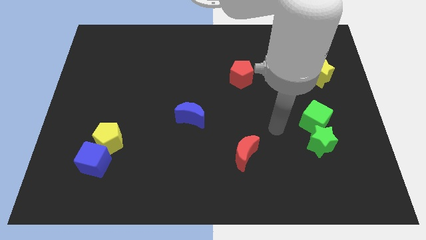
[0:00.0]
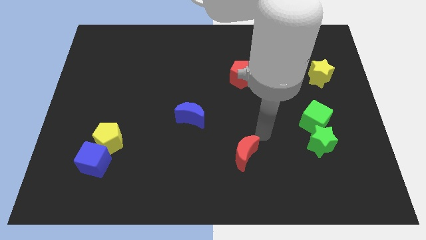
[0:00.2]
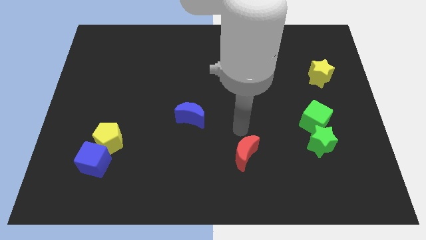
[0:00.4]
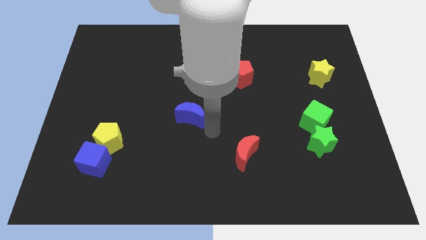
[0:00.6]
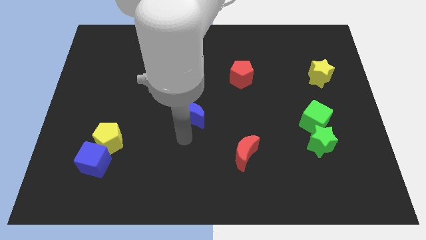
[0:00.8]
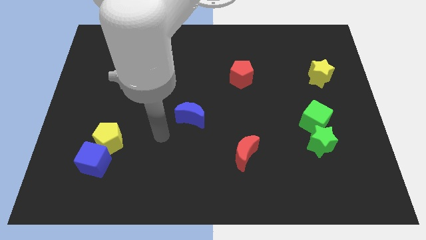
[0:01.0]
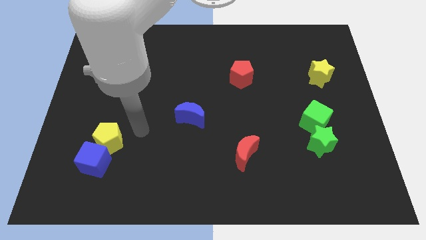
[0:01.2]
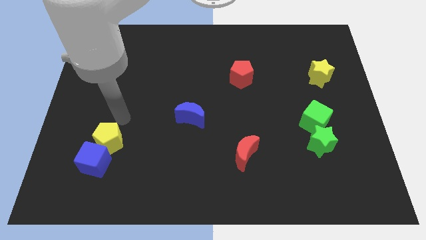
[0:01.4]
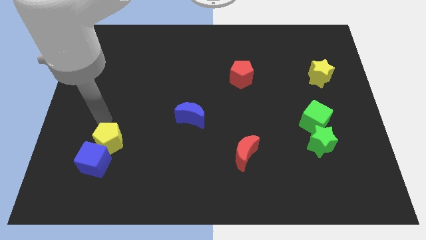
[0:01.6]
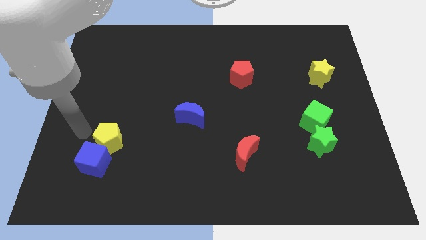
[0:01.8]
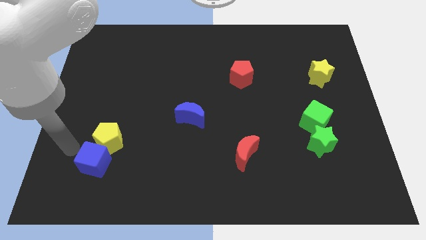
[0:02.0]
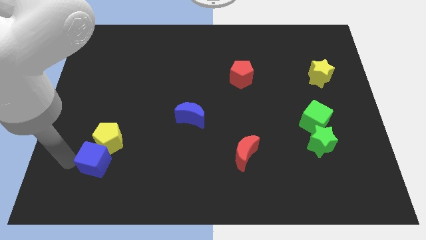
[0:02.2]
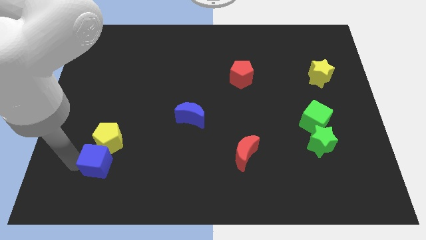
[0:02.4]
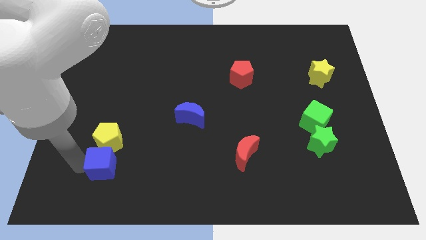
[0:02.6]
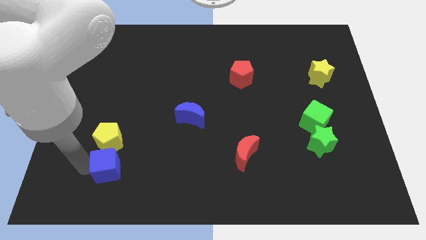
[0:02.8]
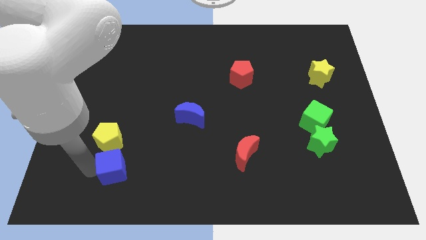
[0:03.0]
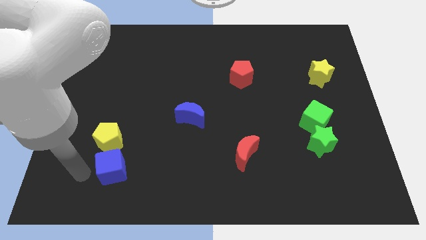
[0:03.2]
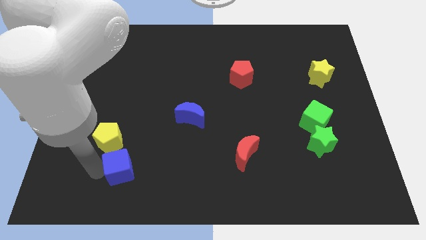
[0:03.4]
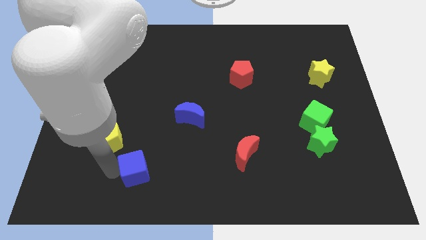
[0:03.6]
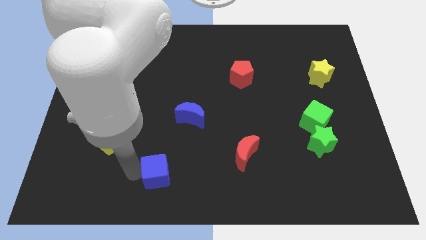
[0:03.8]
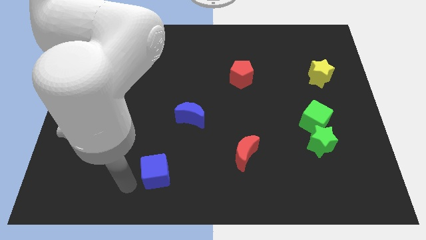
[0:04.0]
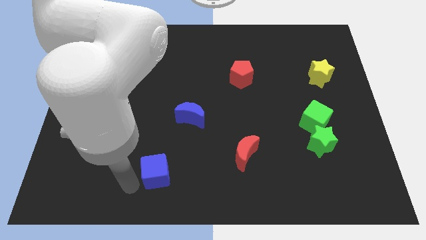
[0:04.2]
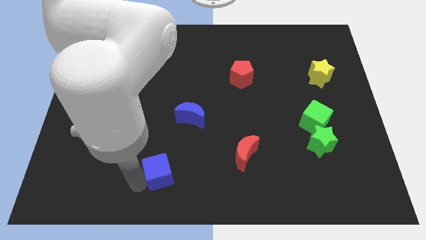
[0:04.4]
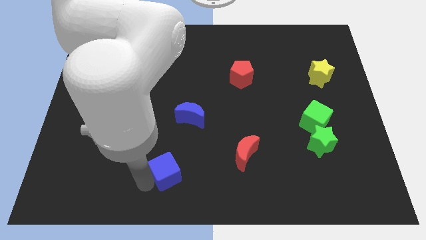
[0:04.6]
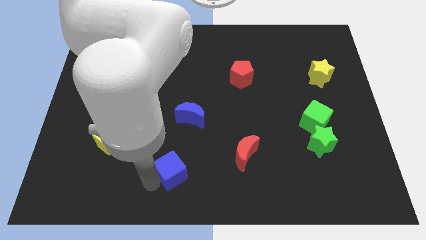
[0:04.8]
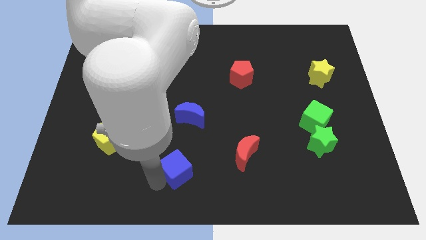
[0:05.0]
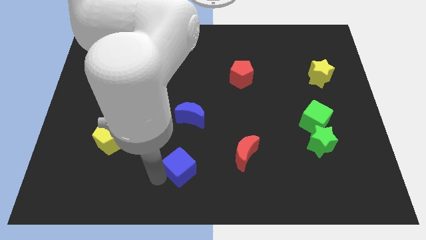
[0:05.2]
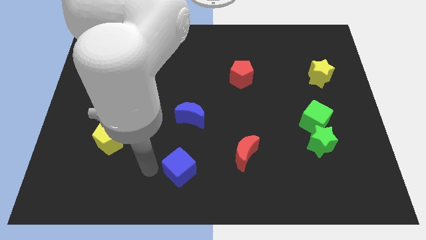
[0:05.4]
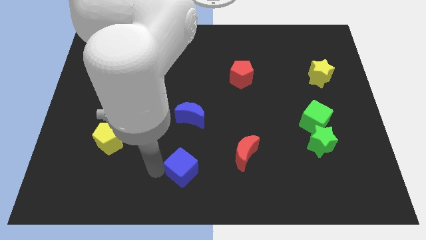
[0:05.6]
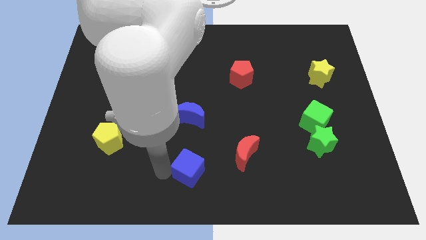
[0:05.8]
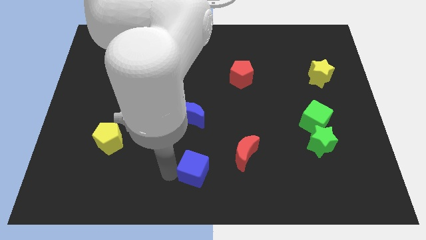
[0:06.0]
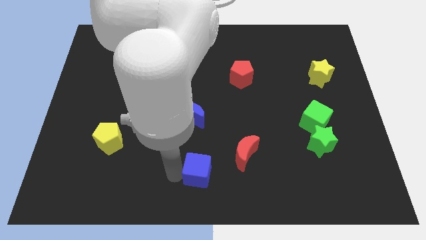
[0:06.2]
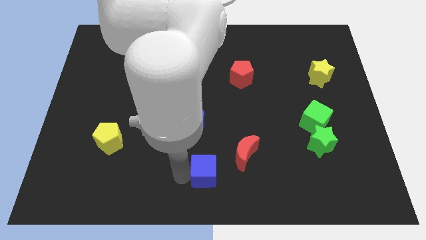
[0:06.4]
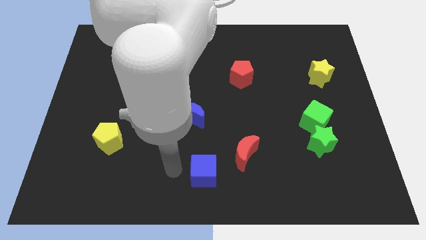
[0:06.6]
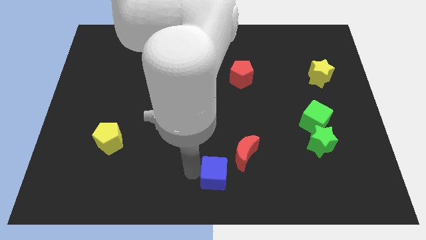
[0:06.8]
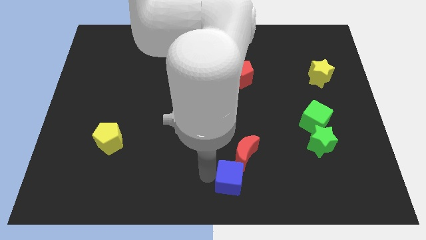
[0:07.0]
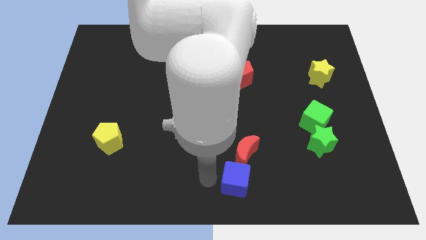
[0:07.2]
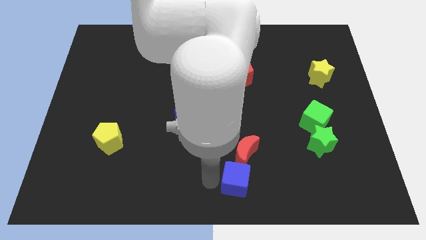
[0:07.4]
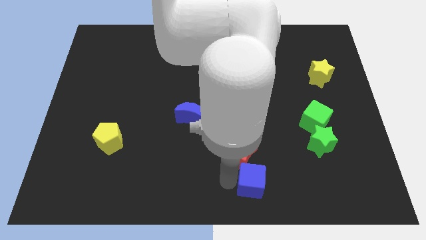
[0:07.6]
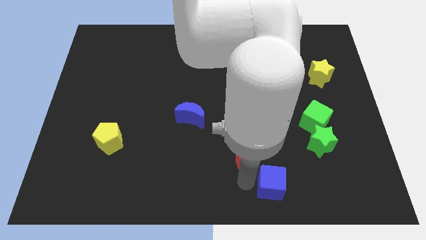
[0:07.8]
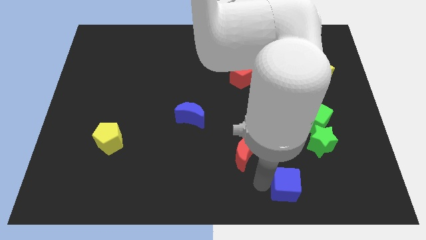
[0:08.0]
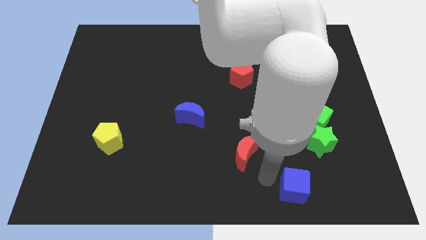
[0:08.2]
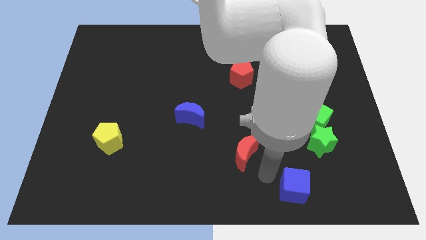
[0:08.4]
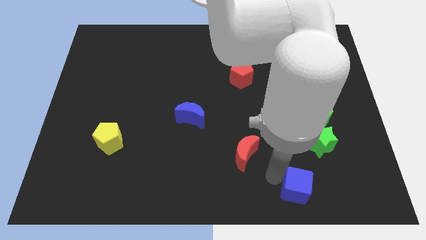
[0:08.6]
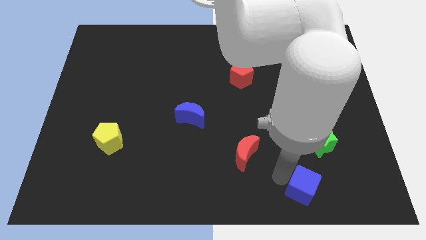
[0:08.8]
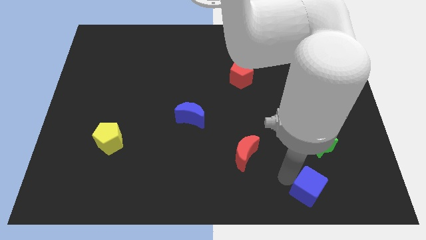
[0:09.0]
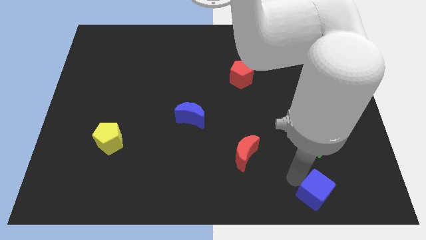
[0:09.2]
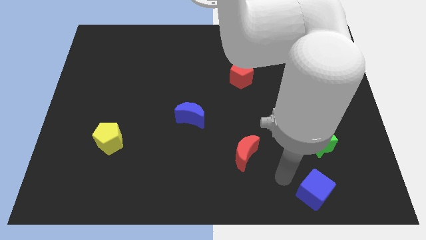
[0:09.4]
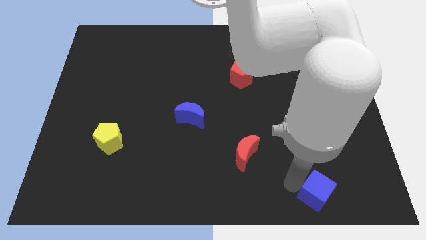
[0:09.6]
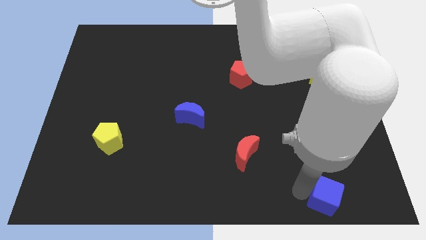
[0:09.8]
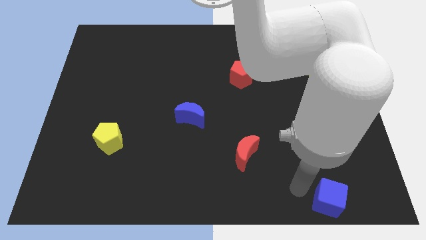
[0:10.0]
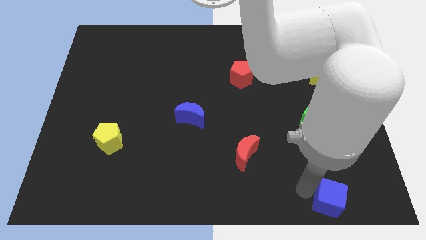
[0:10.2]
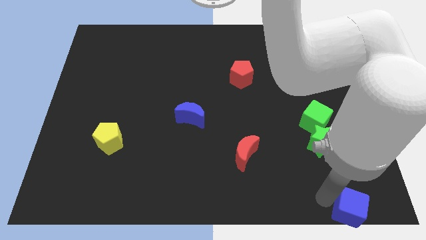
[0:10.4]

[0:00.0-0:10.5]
slide the blue cube to the bottom right corner
